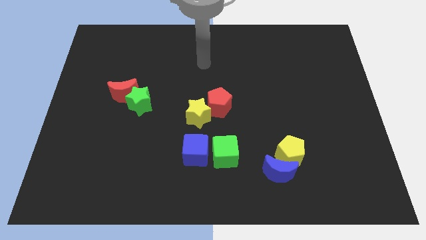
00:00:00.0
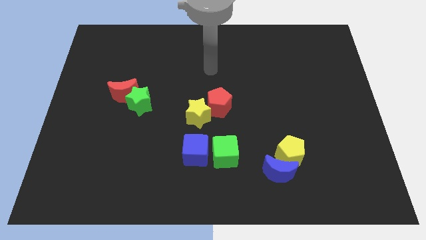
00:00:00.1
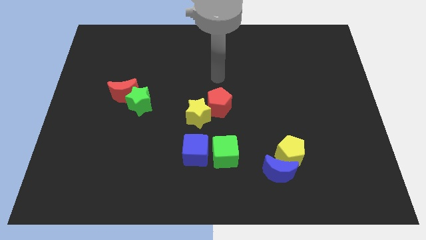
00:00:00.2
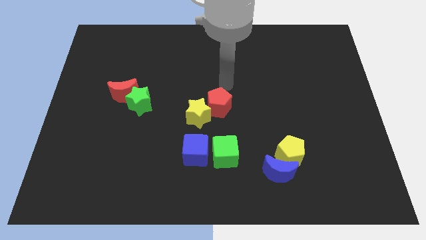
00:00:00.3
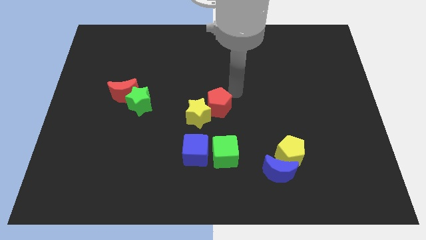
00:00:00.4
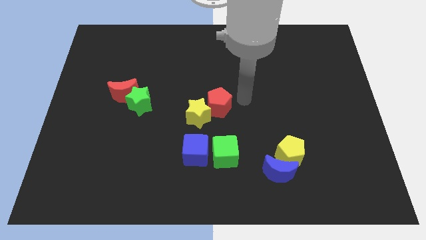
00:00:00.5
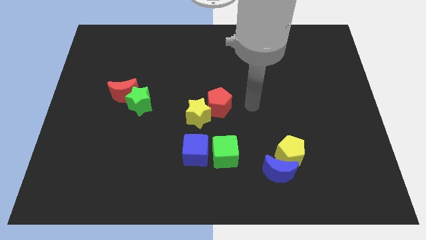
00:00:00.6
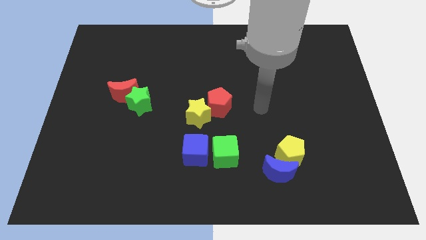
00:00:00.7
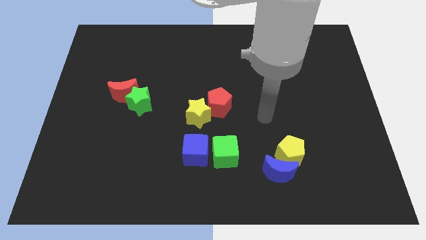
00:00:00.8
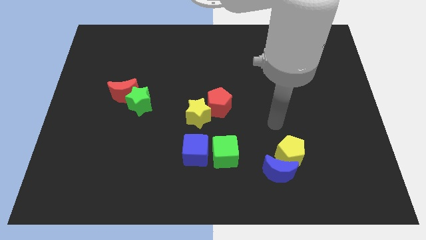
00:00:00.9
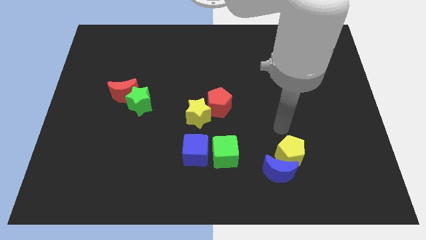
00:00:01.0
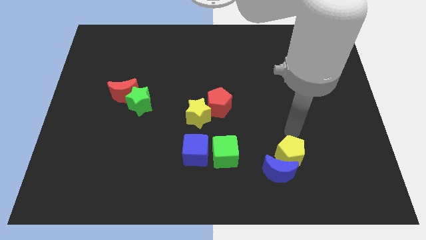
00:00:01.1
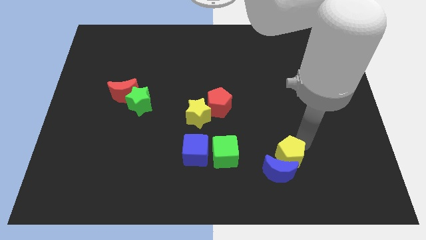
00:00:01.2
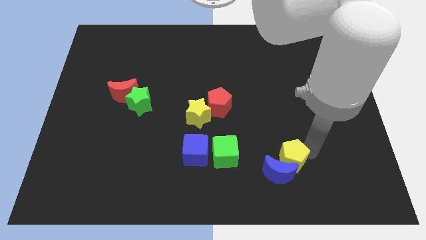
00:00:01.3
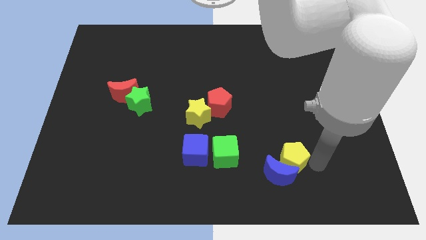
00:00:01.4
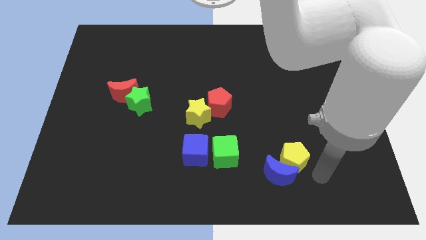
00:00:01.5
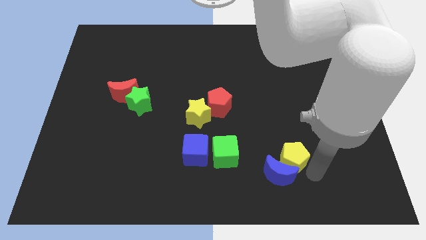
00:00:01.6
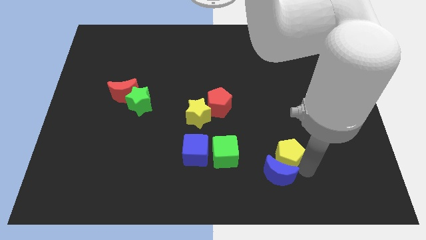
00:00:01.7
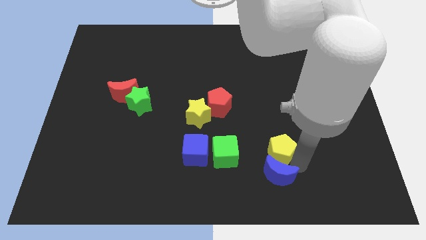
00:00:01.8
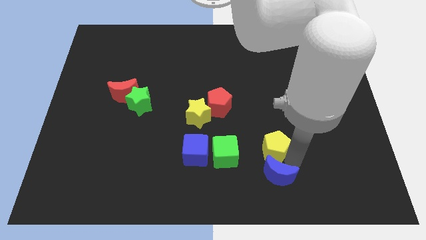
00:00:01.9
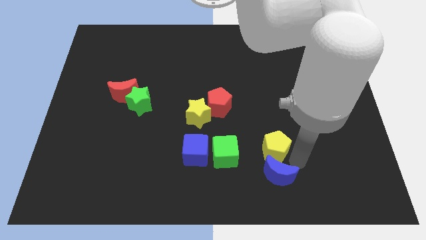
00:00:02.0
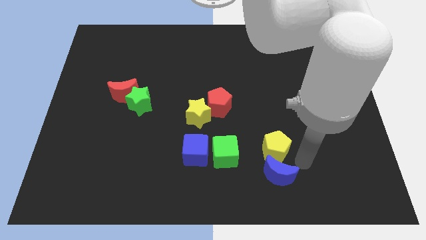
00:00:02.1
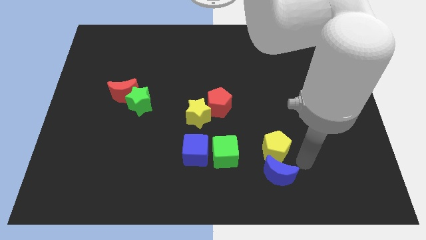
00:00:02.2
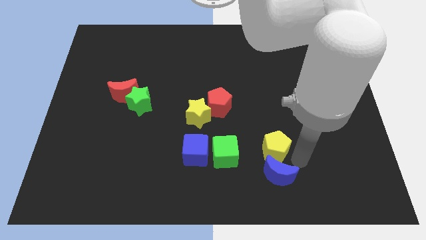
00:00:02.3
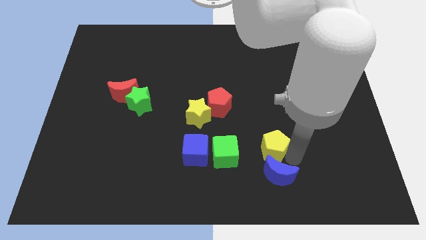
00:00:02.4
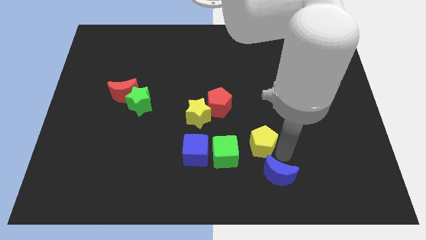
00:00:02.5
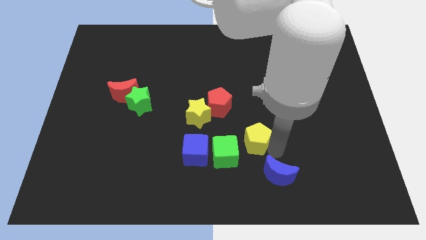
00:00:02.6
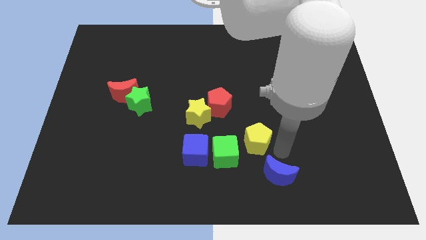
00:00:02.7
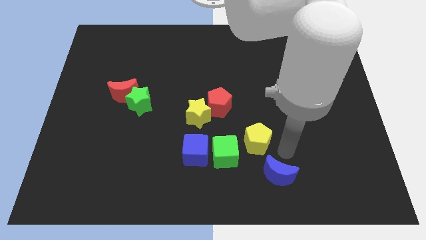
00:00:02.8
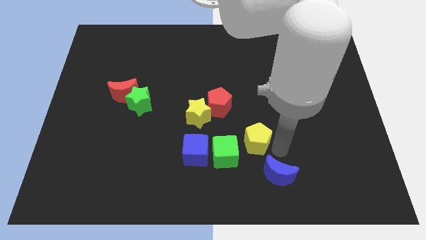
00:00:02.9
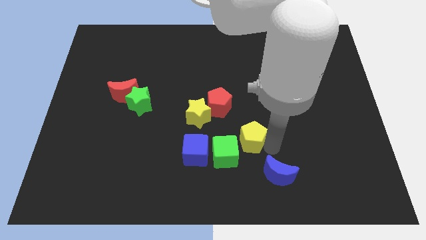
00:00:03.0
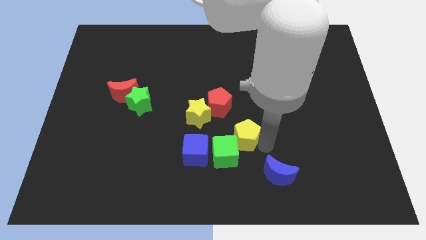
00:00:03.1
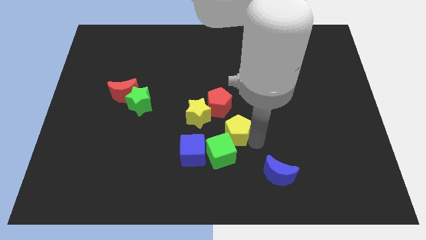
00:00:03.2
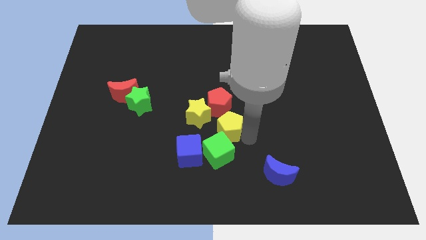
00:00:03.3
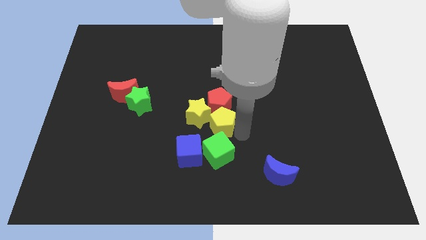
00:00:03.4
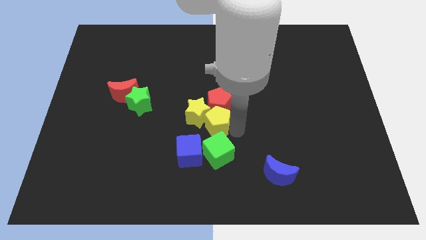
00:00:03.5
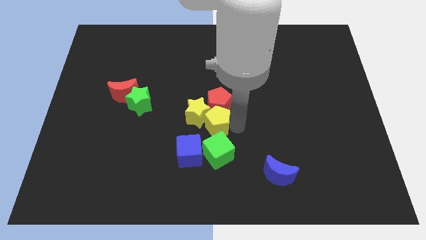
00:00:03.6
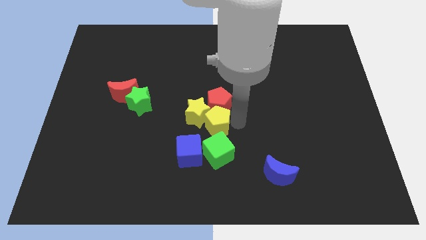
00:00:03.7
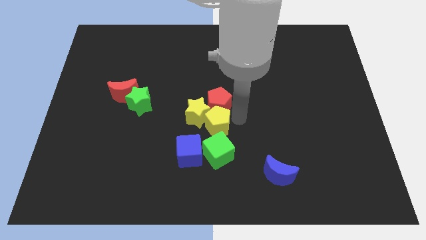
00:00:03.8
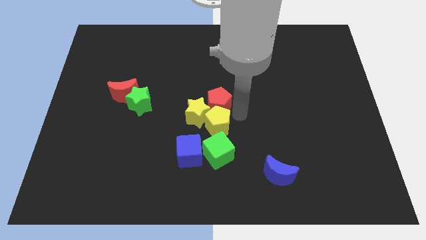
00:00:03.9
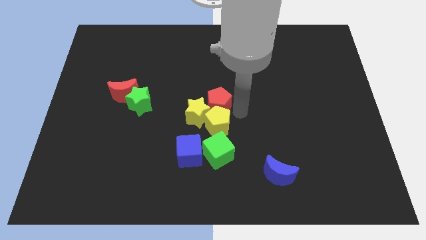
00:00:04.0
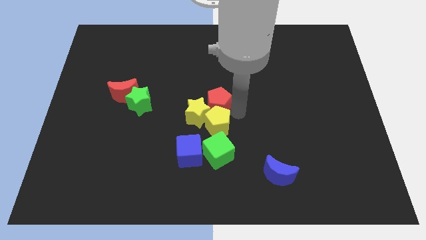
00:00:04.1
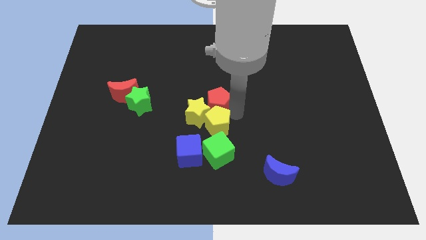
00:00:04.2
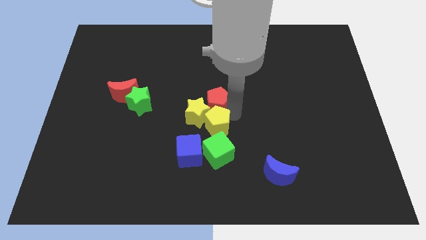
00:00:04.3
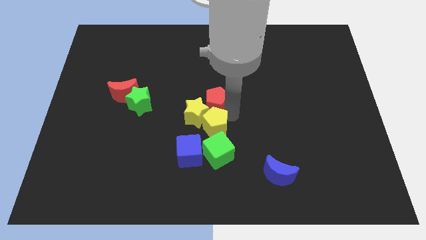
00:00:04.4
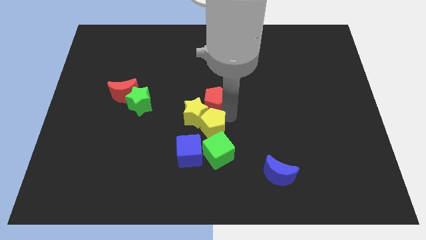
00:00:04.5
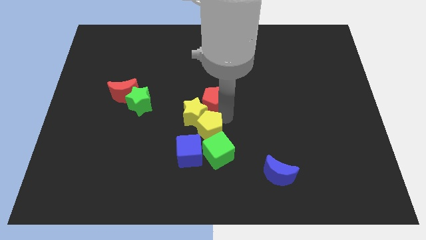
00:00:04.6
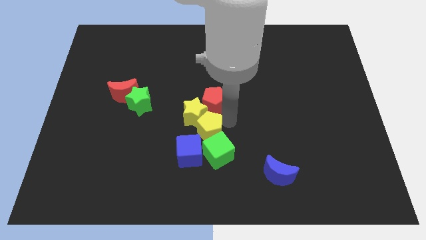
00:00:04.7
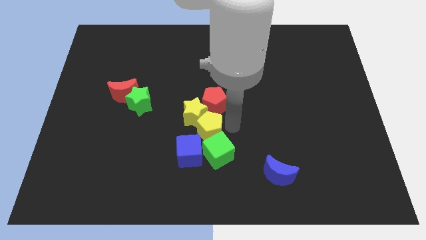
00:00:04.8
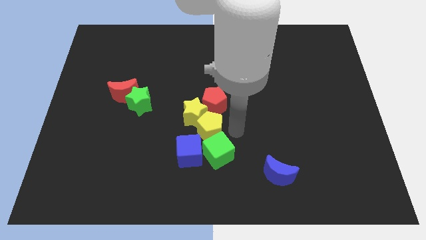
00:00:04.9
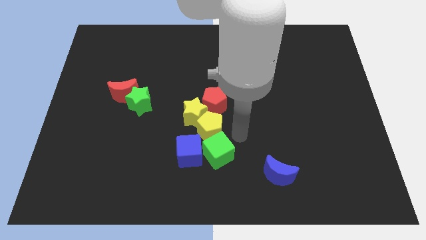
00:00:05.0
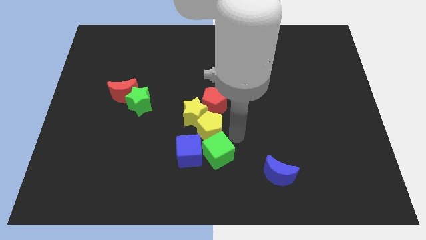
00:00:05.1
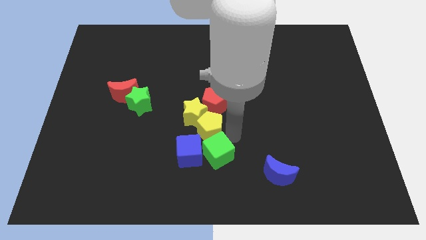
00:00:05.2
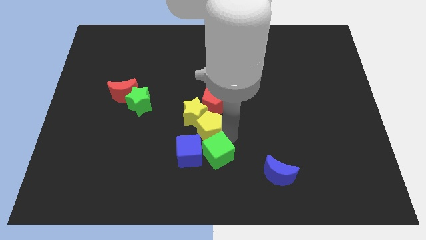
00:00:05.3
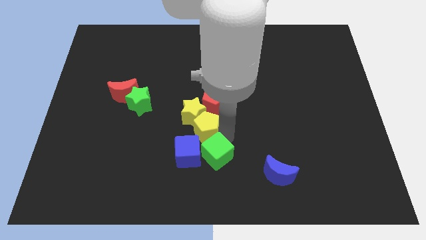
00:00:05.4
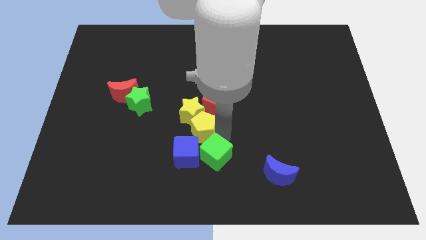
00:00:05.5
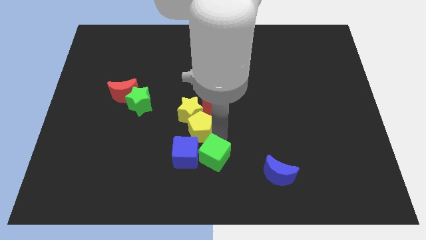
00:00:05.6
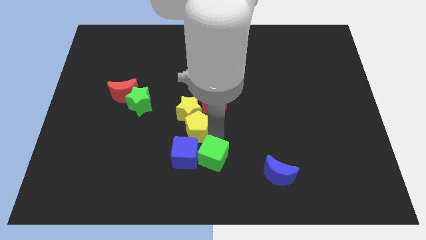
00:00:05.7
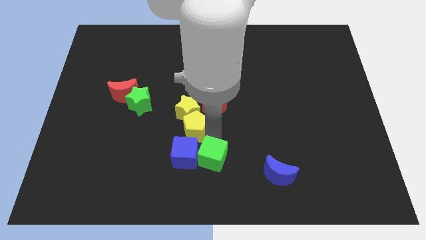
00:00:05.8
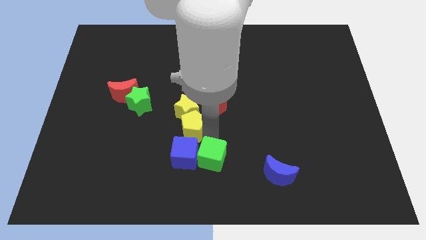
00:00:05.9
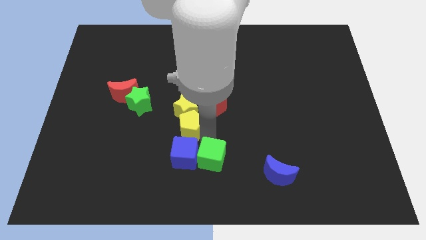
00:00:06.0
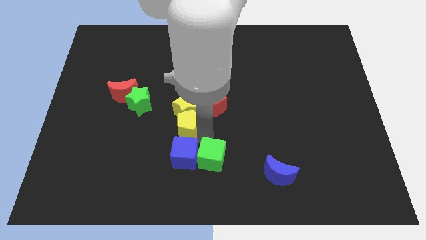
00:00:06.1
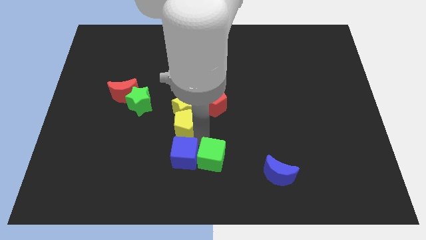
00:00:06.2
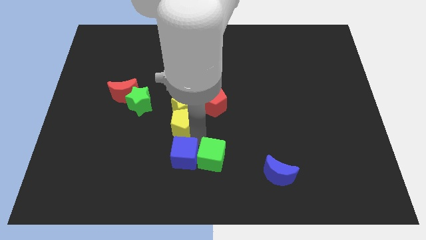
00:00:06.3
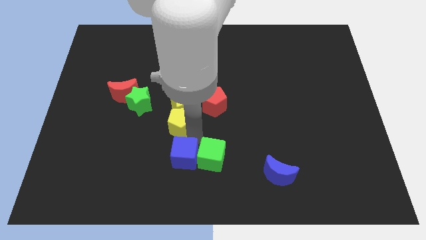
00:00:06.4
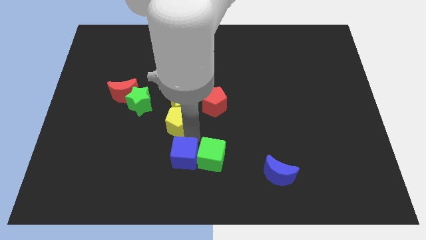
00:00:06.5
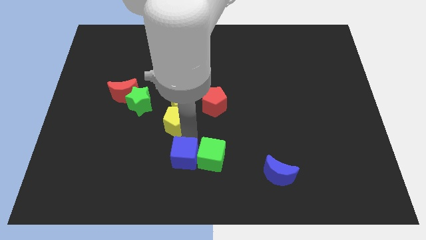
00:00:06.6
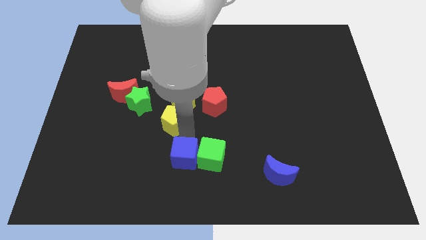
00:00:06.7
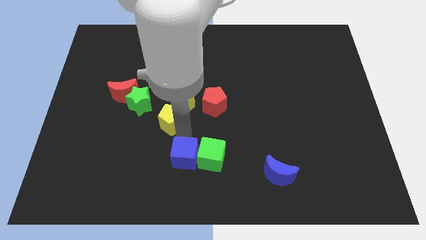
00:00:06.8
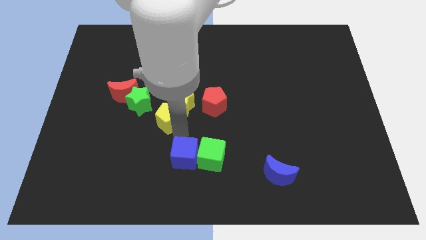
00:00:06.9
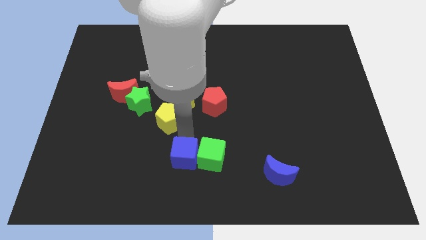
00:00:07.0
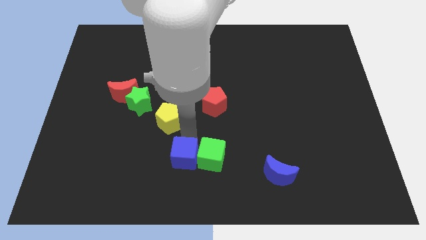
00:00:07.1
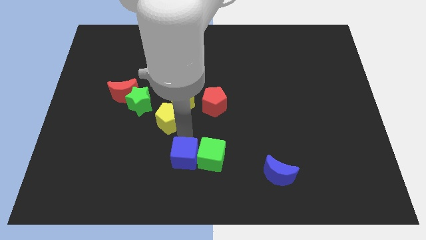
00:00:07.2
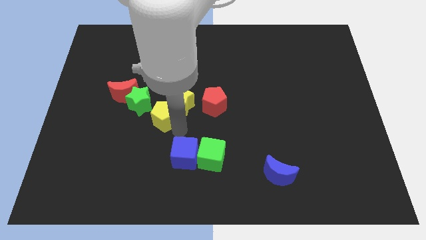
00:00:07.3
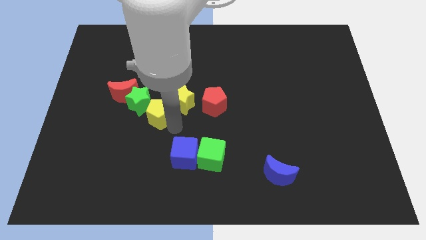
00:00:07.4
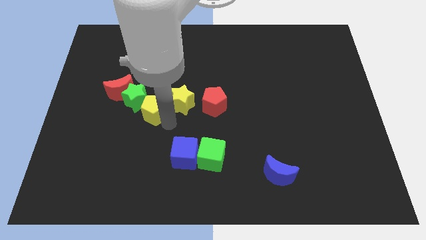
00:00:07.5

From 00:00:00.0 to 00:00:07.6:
move the yellow pentagon towards the green star
